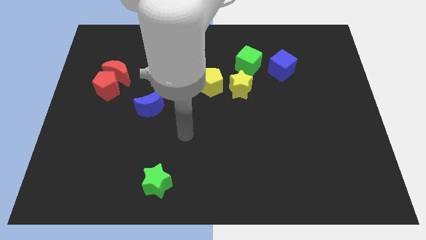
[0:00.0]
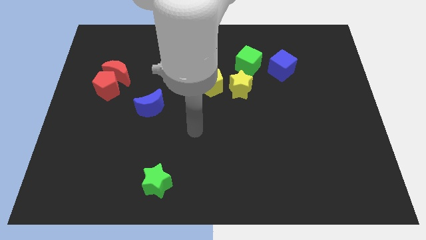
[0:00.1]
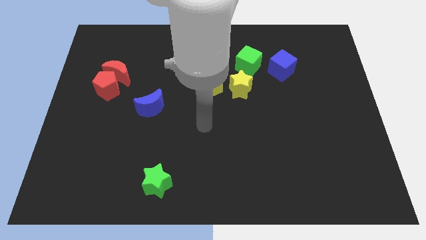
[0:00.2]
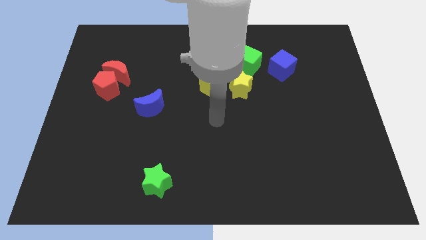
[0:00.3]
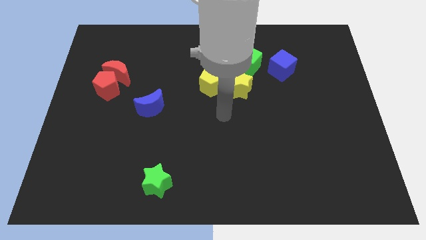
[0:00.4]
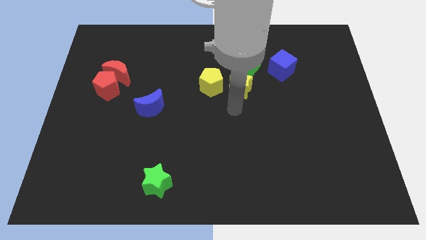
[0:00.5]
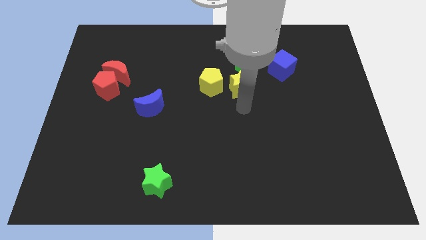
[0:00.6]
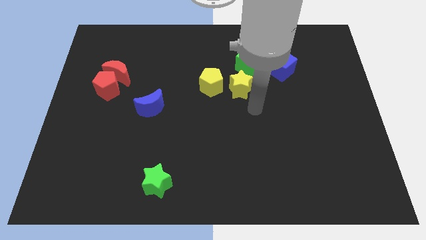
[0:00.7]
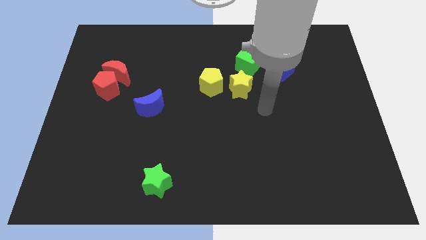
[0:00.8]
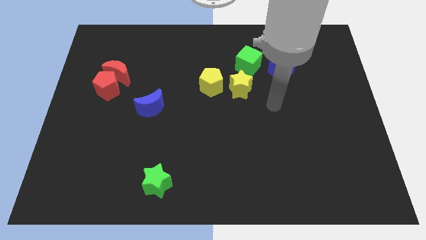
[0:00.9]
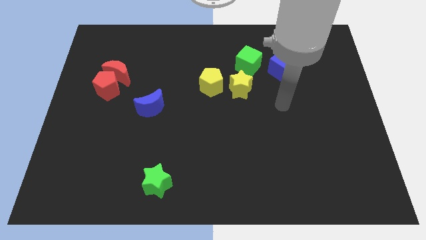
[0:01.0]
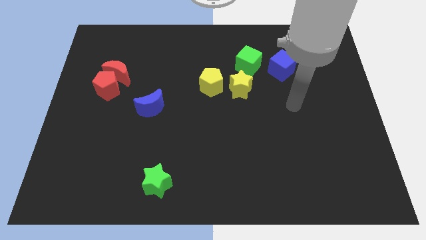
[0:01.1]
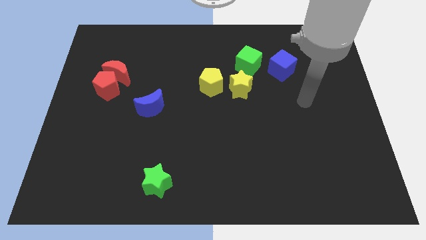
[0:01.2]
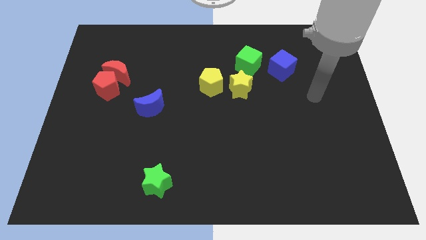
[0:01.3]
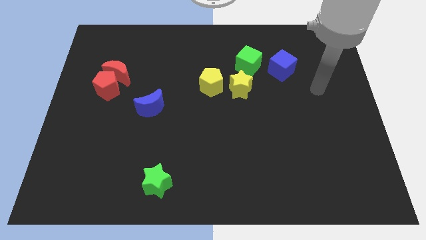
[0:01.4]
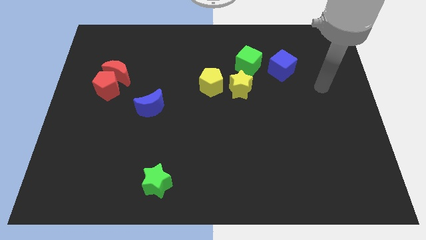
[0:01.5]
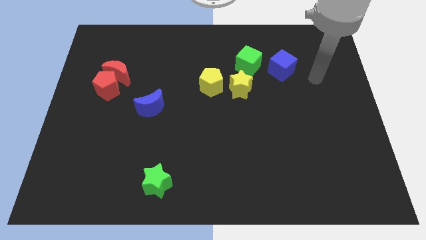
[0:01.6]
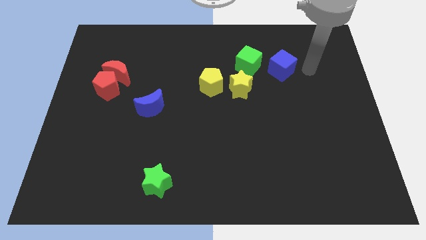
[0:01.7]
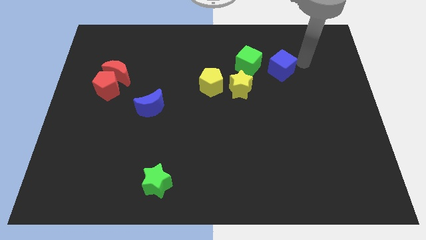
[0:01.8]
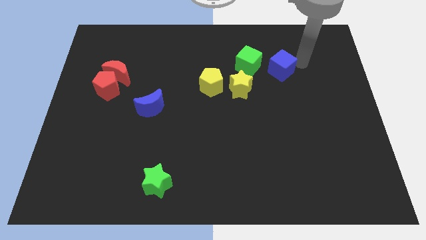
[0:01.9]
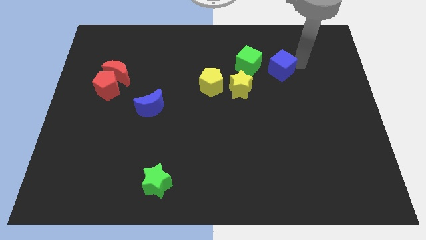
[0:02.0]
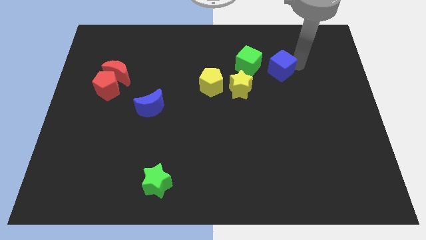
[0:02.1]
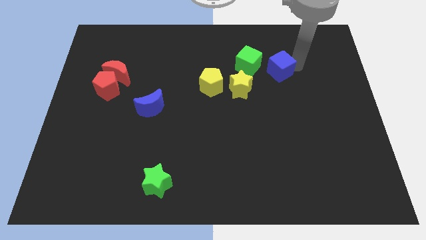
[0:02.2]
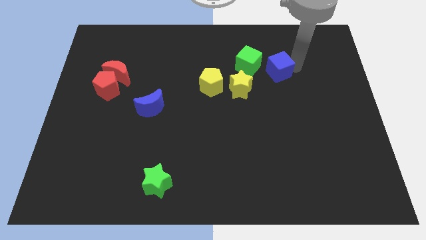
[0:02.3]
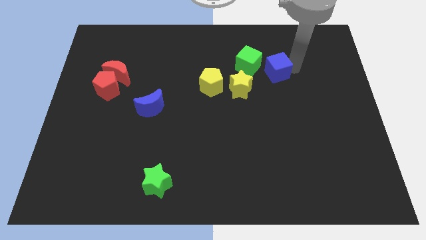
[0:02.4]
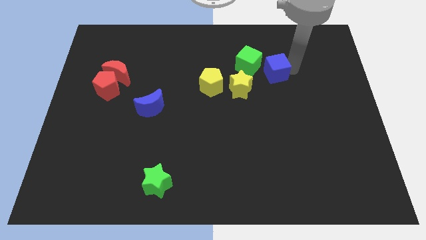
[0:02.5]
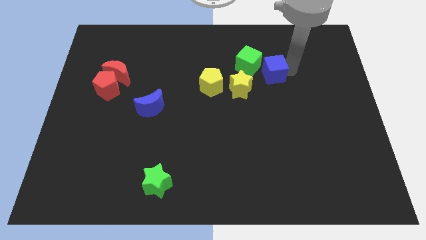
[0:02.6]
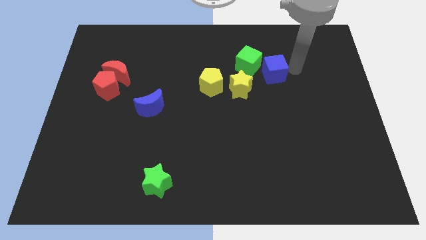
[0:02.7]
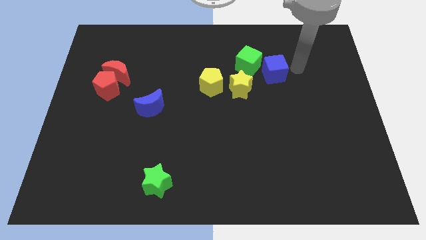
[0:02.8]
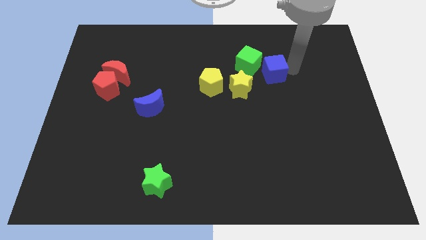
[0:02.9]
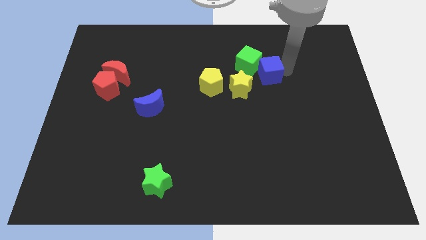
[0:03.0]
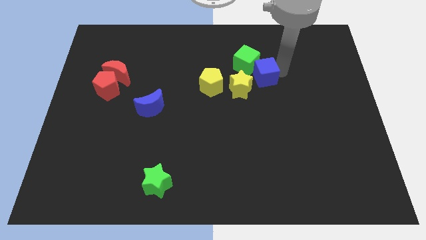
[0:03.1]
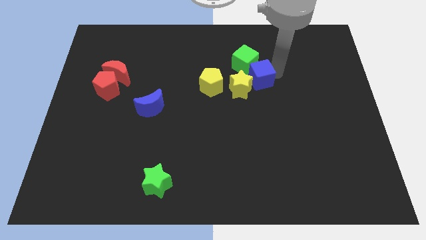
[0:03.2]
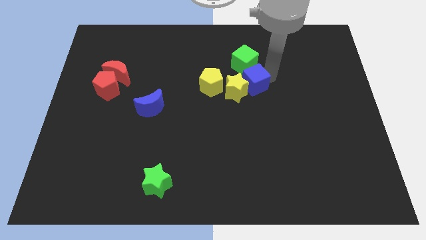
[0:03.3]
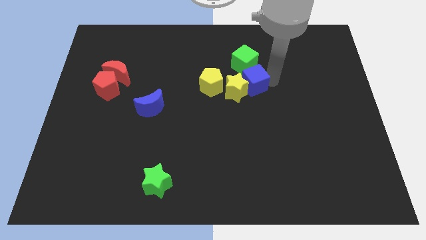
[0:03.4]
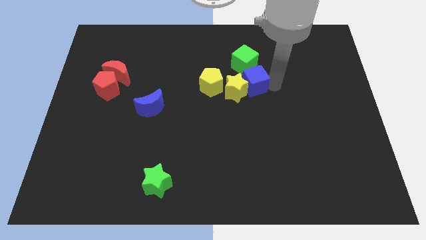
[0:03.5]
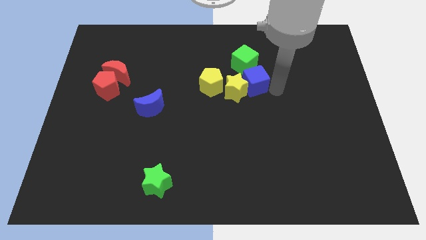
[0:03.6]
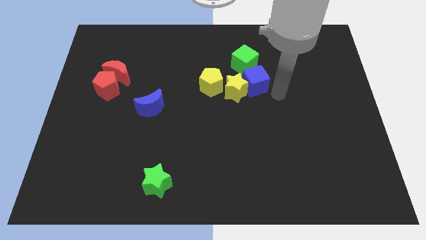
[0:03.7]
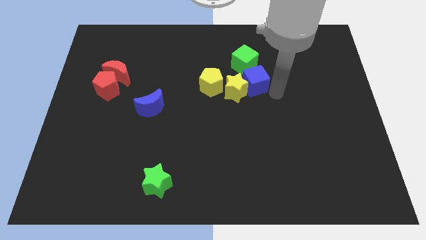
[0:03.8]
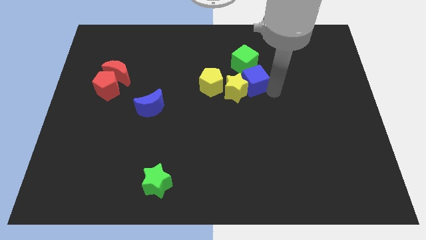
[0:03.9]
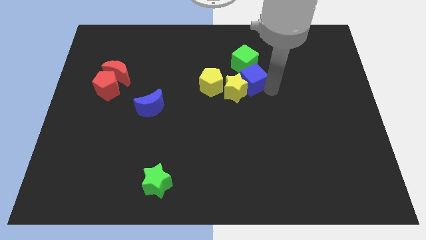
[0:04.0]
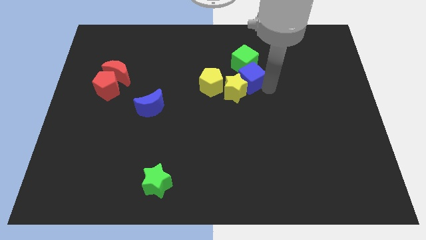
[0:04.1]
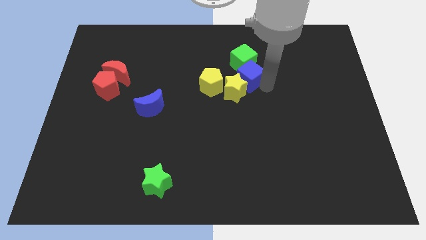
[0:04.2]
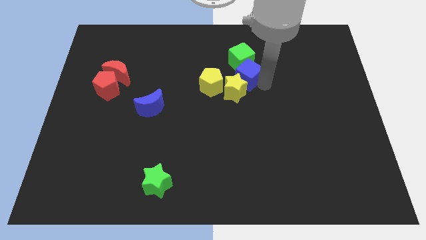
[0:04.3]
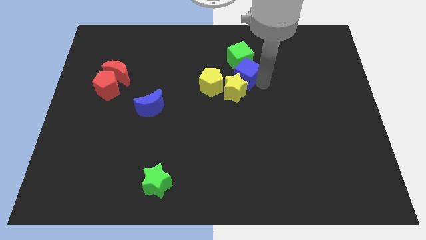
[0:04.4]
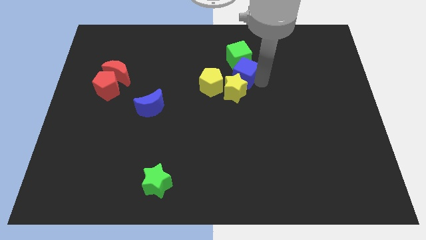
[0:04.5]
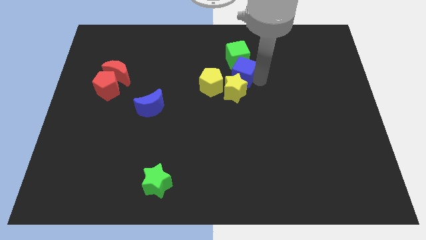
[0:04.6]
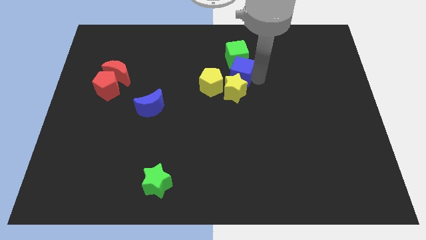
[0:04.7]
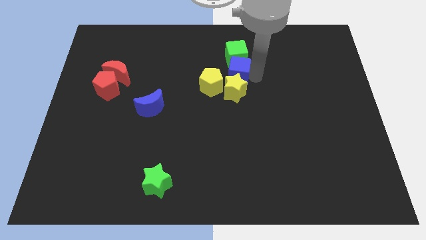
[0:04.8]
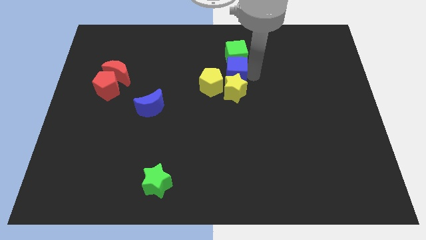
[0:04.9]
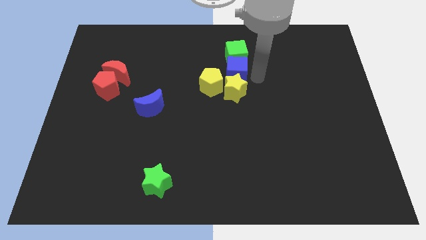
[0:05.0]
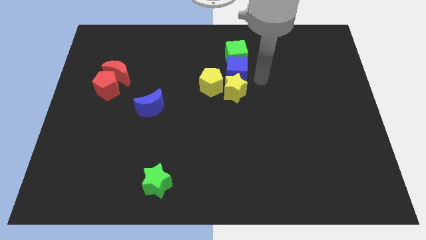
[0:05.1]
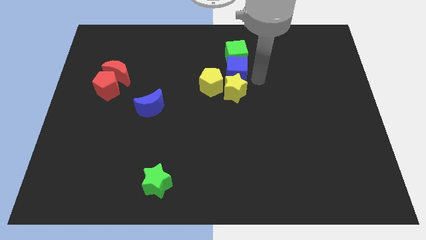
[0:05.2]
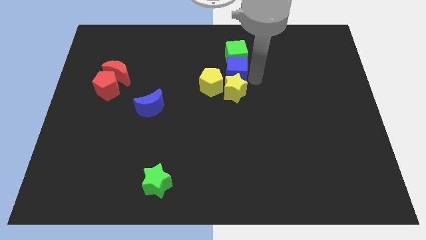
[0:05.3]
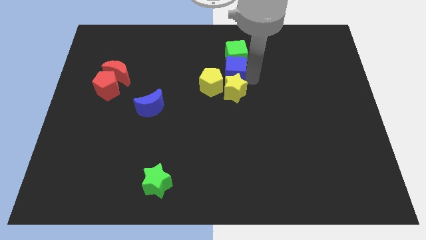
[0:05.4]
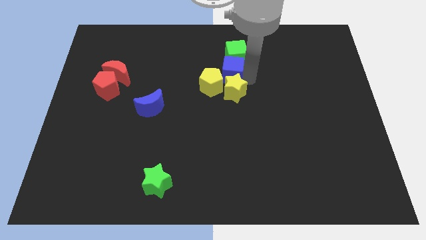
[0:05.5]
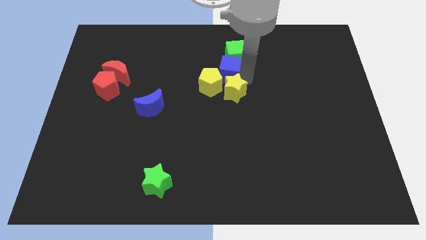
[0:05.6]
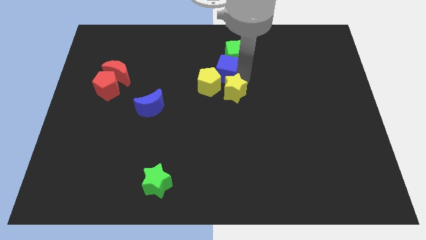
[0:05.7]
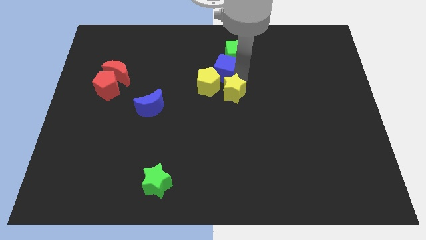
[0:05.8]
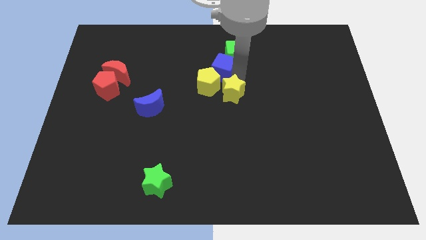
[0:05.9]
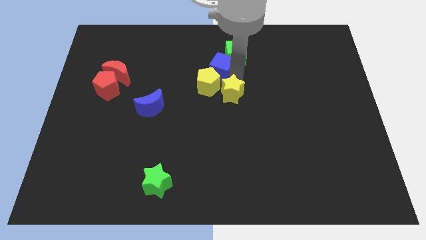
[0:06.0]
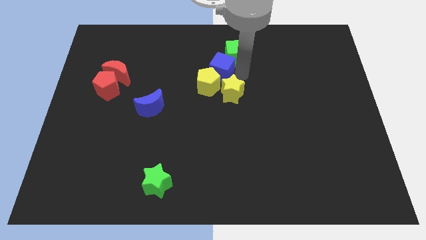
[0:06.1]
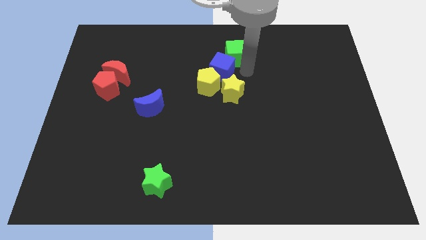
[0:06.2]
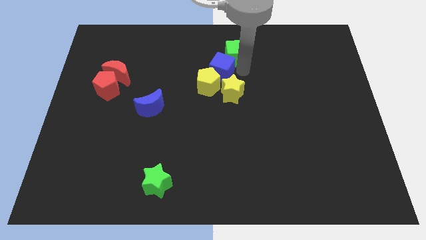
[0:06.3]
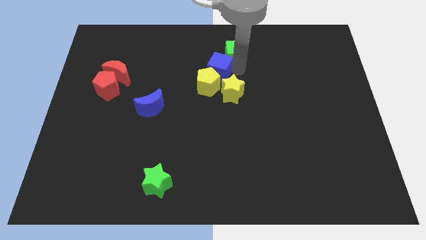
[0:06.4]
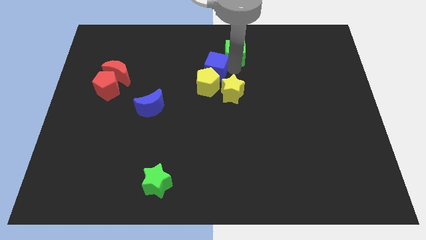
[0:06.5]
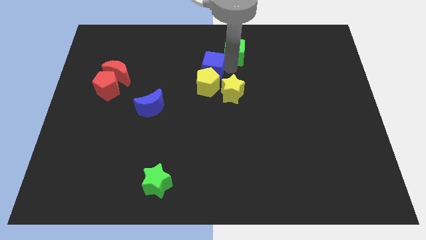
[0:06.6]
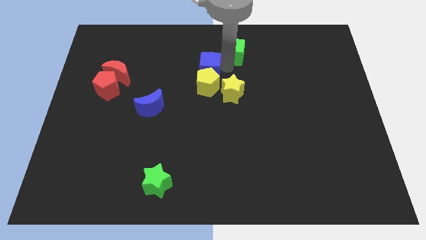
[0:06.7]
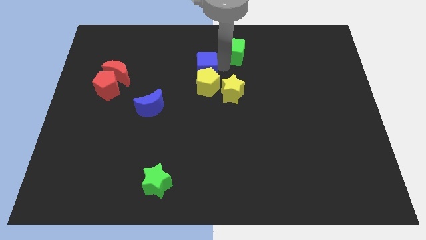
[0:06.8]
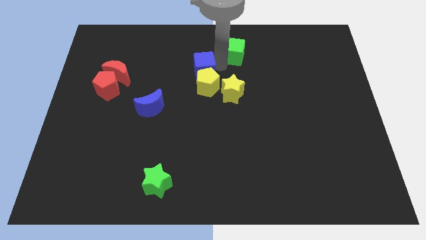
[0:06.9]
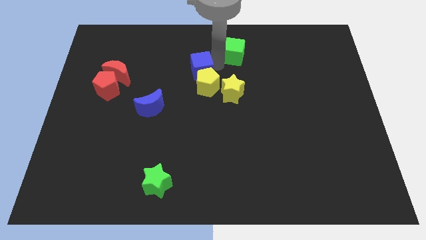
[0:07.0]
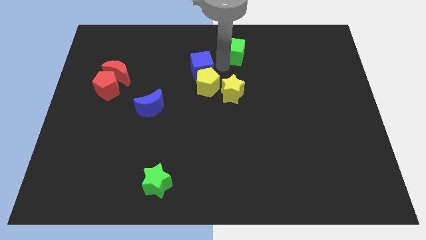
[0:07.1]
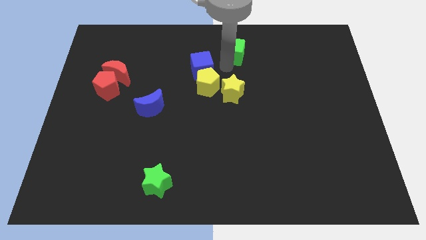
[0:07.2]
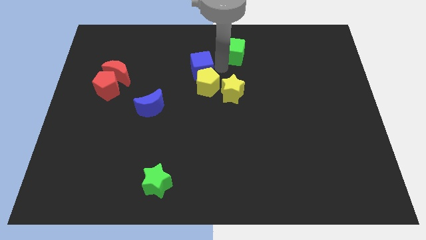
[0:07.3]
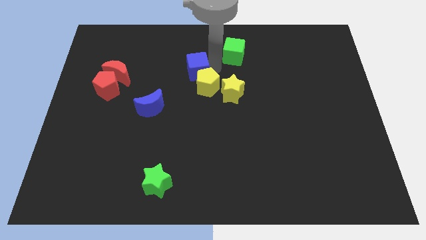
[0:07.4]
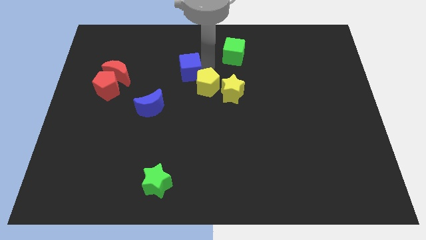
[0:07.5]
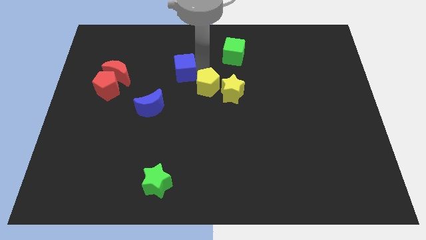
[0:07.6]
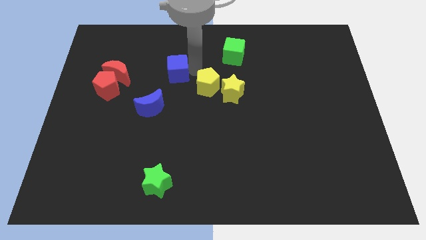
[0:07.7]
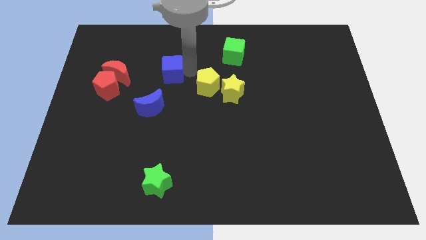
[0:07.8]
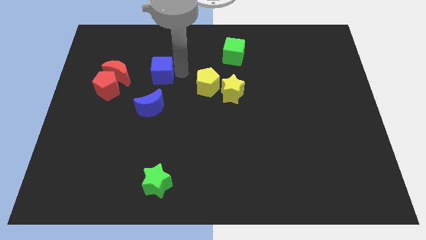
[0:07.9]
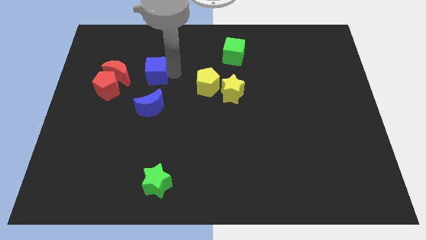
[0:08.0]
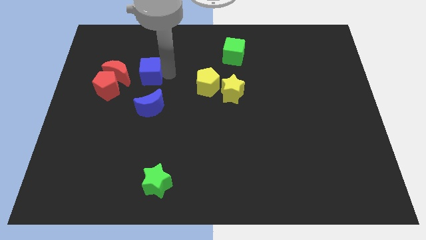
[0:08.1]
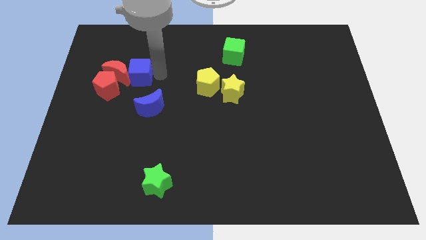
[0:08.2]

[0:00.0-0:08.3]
slide the blue cube close to the red moon
